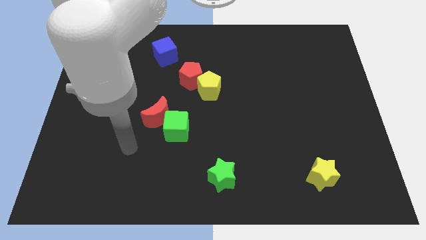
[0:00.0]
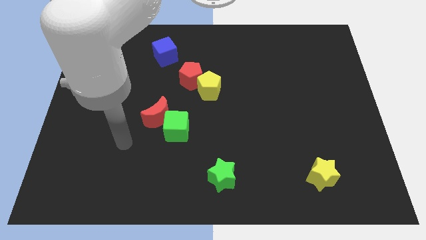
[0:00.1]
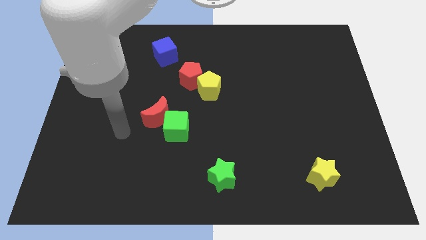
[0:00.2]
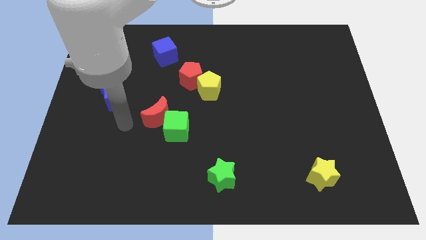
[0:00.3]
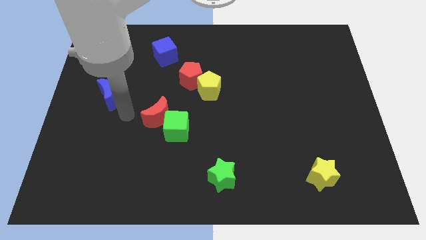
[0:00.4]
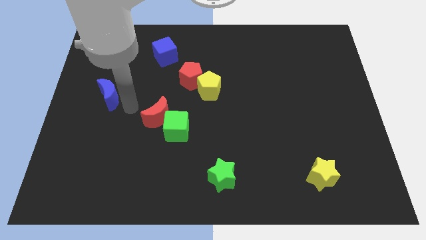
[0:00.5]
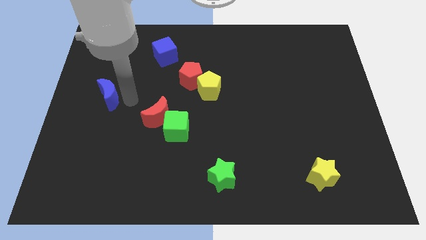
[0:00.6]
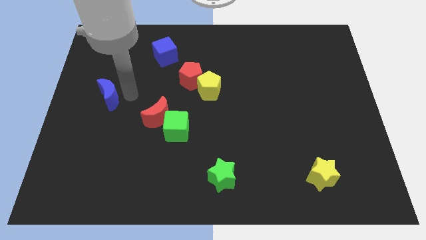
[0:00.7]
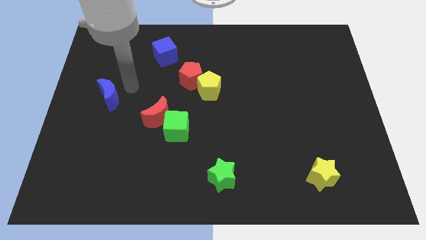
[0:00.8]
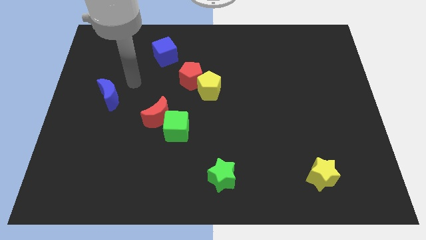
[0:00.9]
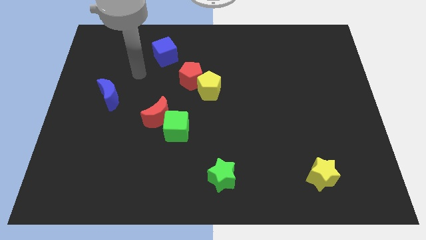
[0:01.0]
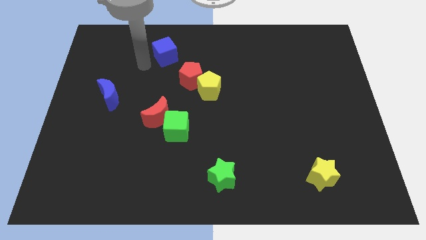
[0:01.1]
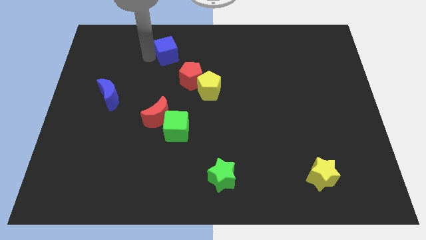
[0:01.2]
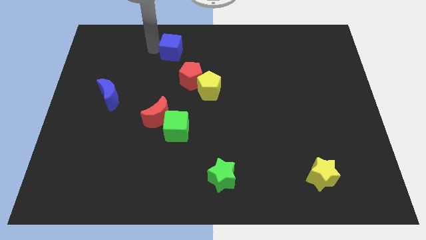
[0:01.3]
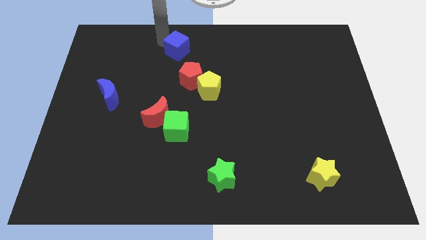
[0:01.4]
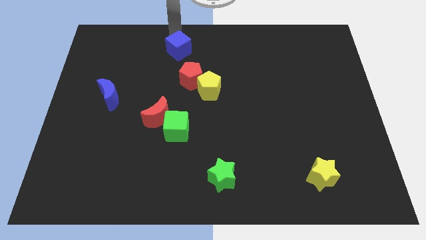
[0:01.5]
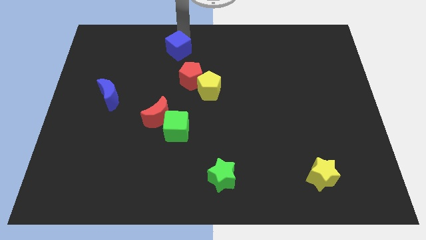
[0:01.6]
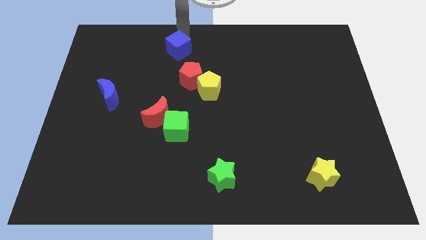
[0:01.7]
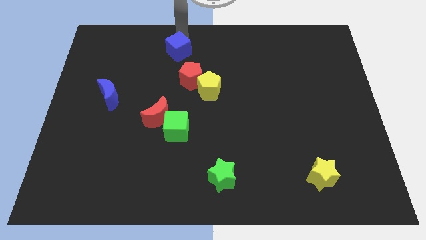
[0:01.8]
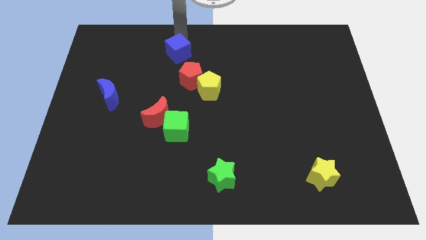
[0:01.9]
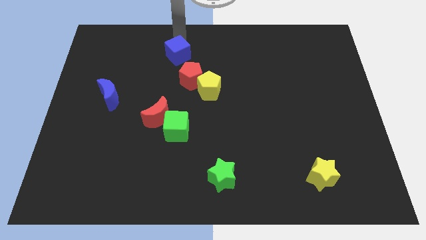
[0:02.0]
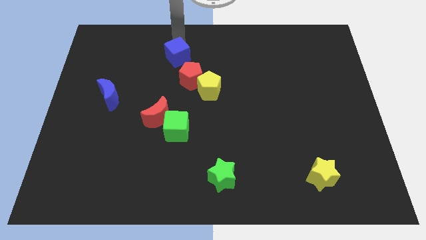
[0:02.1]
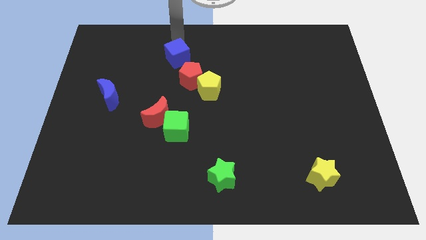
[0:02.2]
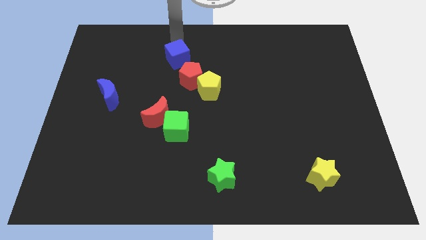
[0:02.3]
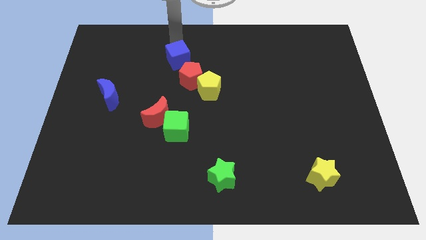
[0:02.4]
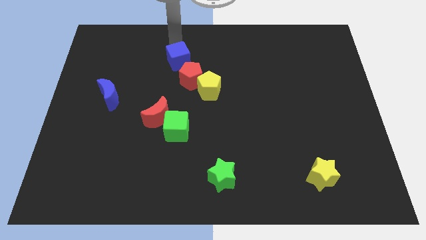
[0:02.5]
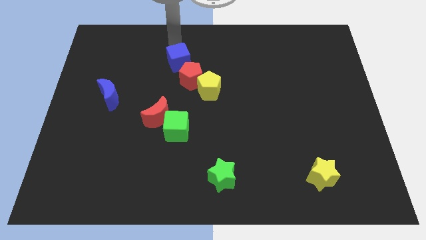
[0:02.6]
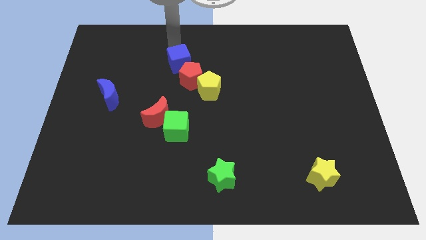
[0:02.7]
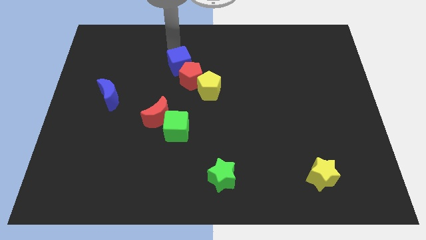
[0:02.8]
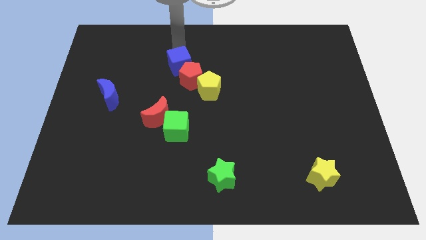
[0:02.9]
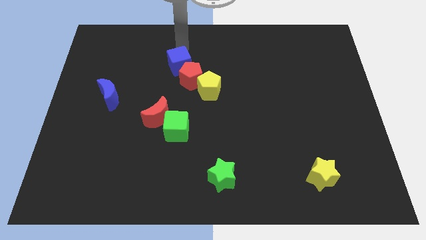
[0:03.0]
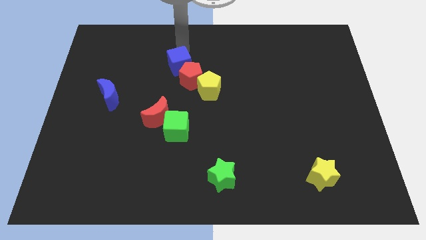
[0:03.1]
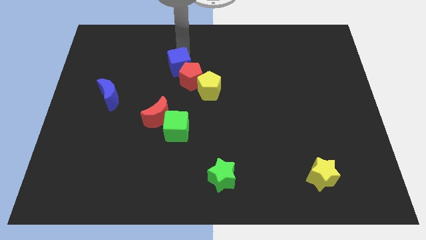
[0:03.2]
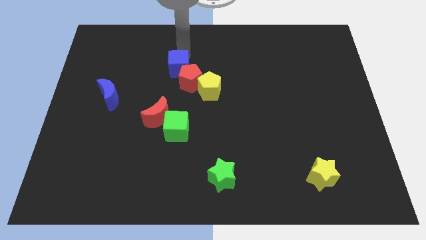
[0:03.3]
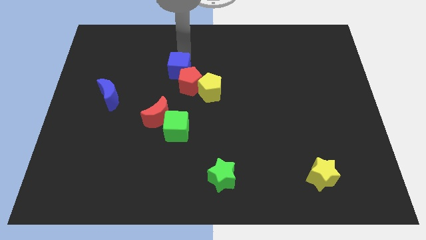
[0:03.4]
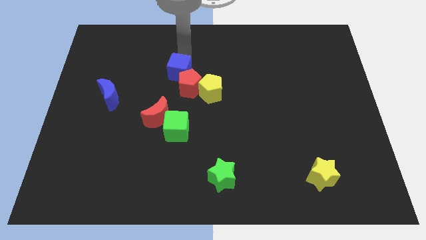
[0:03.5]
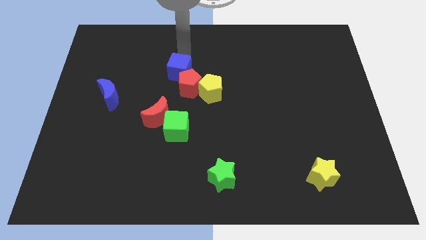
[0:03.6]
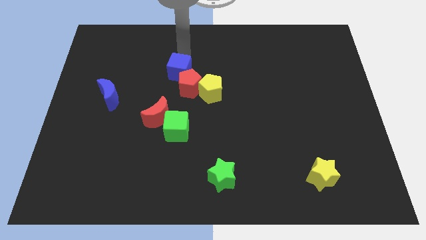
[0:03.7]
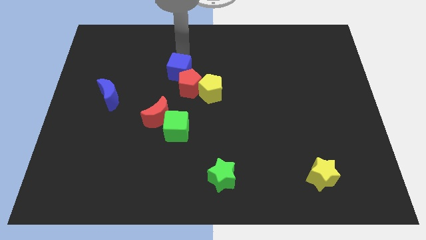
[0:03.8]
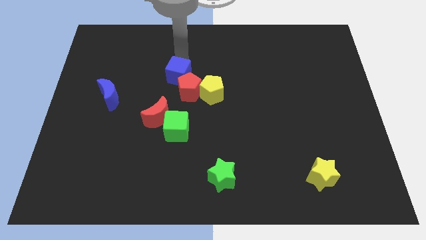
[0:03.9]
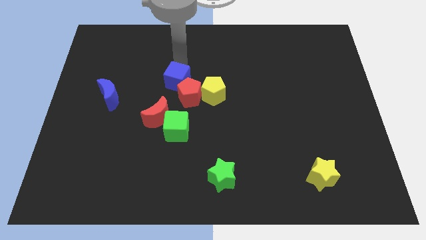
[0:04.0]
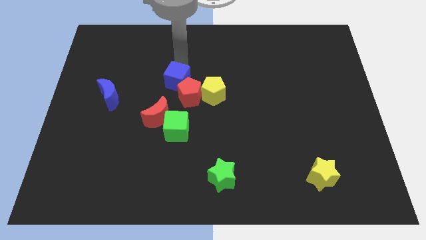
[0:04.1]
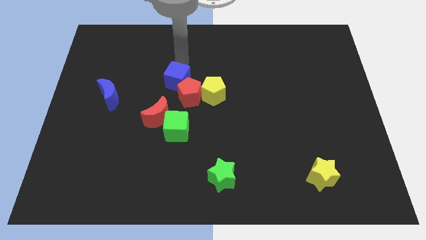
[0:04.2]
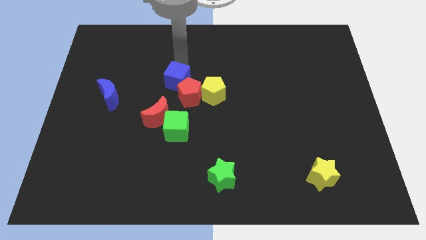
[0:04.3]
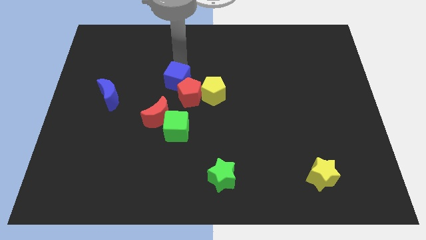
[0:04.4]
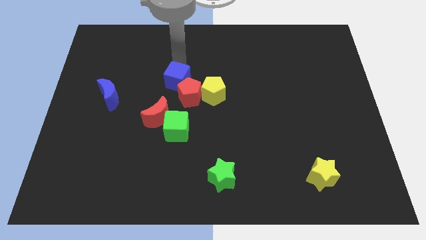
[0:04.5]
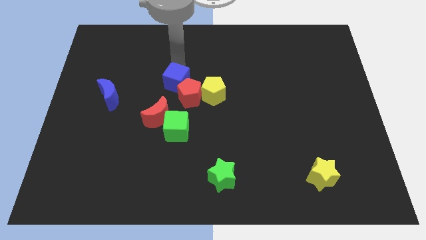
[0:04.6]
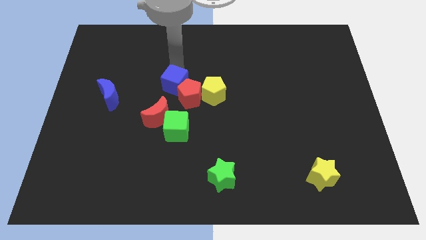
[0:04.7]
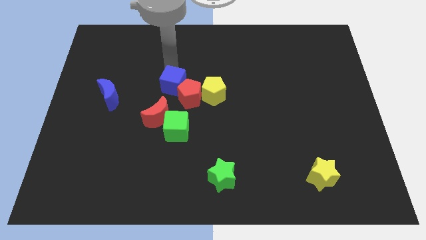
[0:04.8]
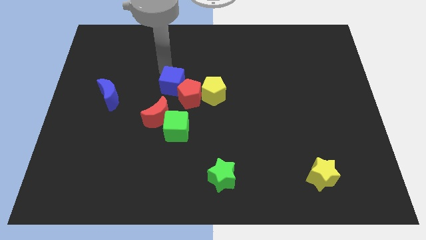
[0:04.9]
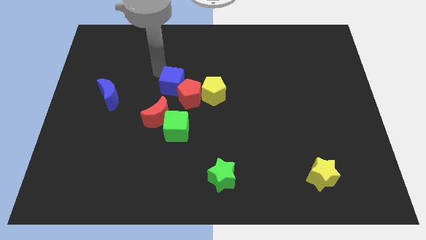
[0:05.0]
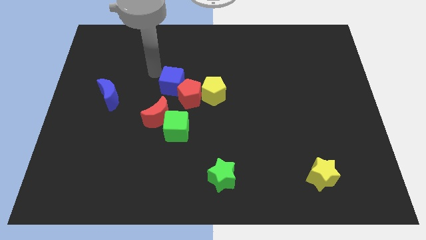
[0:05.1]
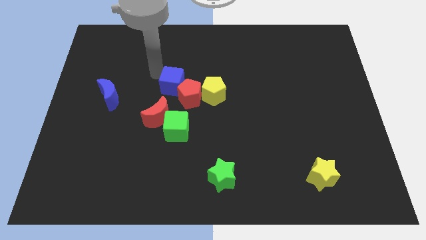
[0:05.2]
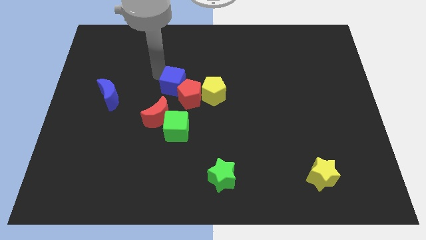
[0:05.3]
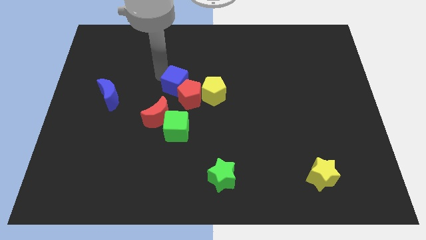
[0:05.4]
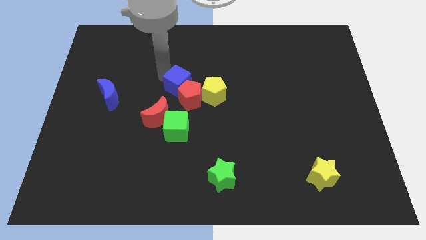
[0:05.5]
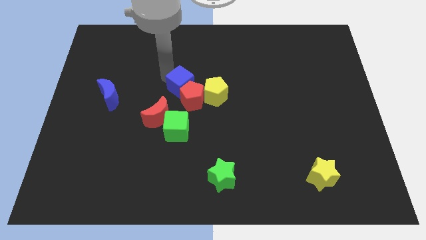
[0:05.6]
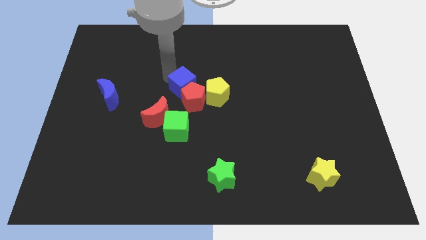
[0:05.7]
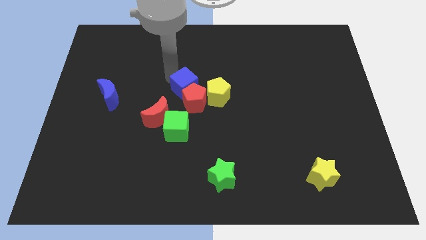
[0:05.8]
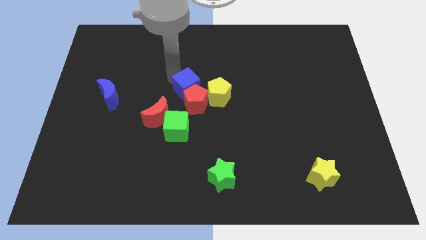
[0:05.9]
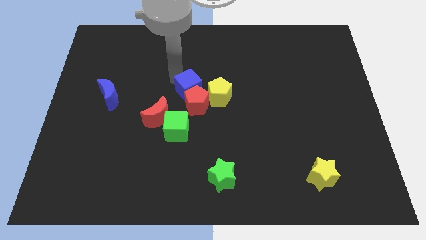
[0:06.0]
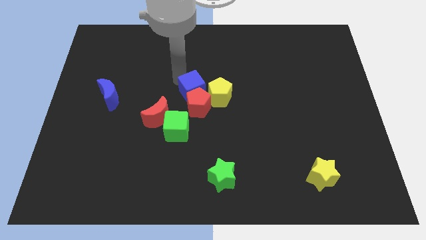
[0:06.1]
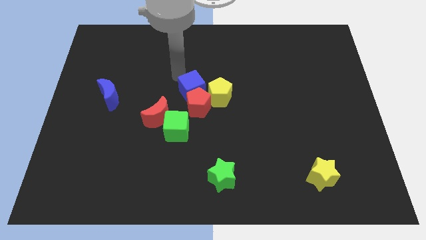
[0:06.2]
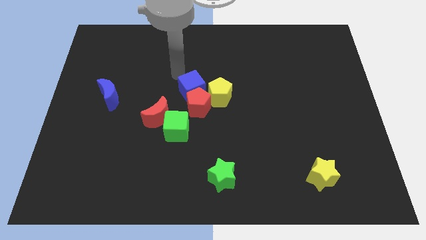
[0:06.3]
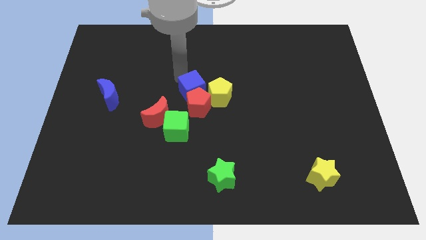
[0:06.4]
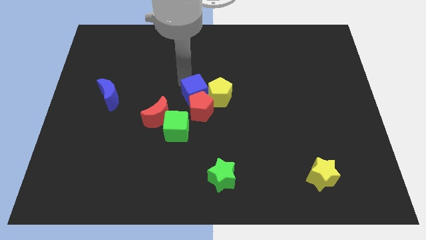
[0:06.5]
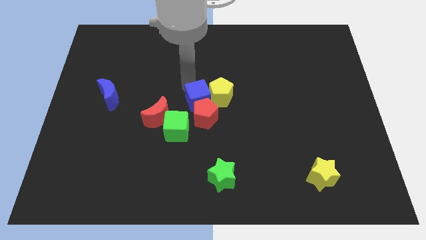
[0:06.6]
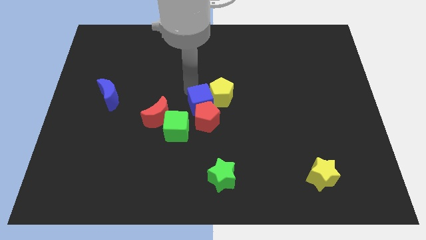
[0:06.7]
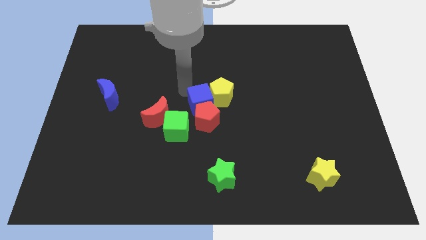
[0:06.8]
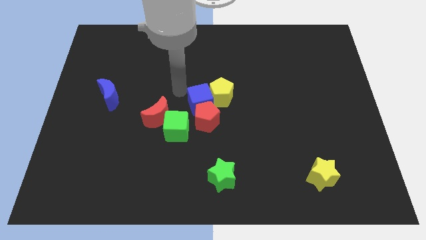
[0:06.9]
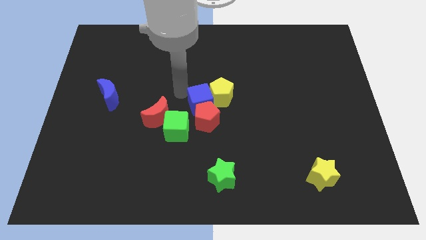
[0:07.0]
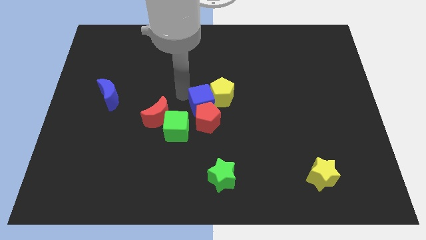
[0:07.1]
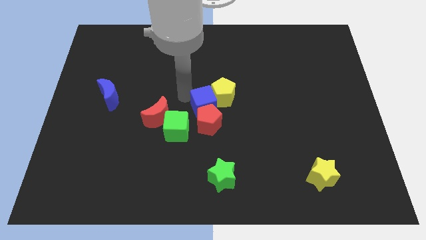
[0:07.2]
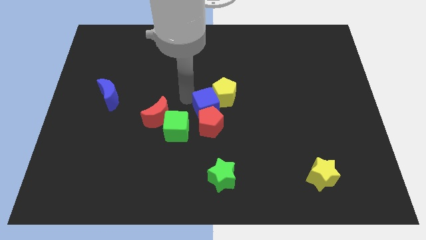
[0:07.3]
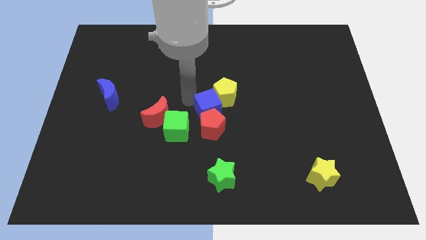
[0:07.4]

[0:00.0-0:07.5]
push the blue cube diagonally downwards and to the right

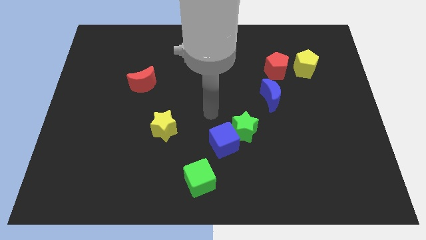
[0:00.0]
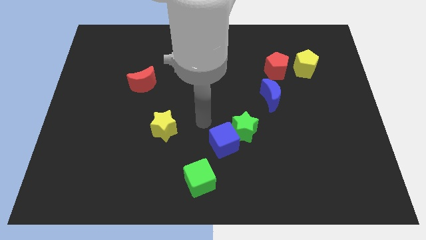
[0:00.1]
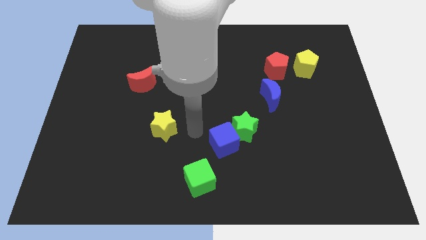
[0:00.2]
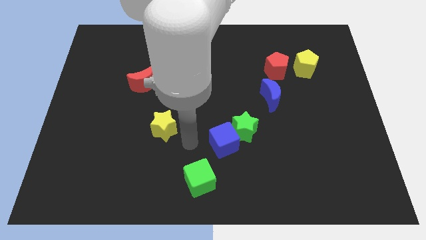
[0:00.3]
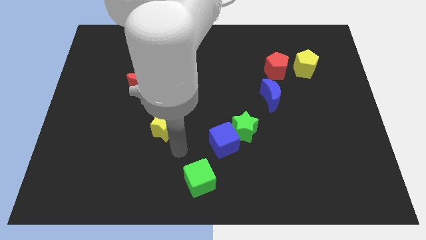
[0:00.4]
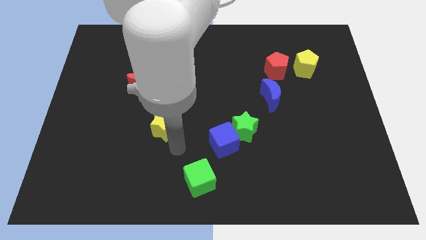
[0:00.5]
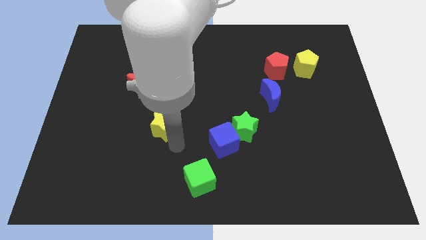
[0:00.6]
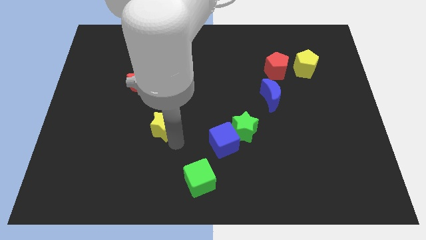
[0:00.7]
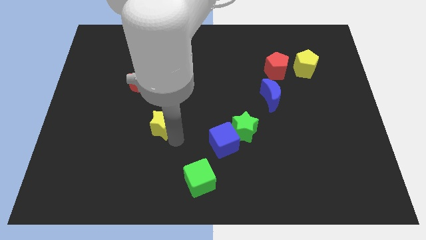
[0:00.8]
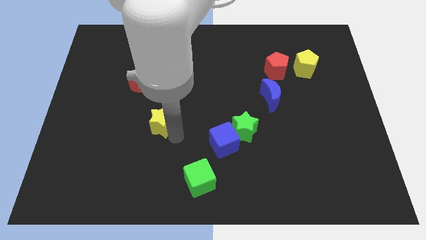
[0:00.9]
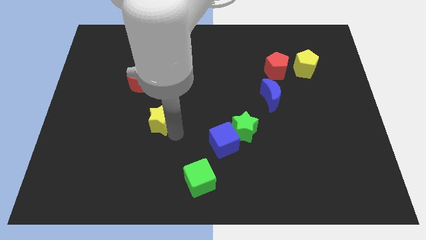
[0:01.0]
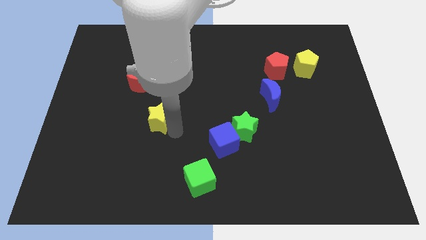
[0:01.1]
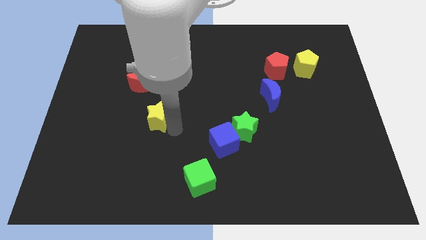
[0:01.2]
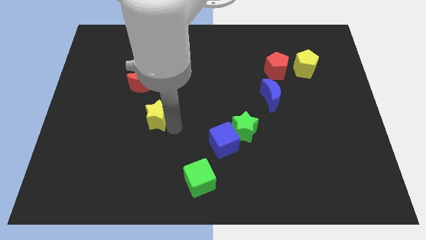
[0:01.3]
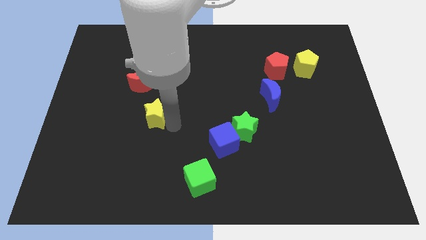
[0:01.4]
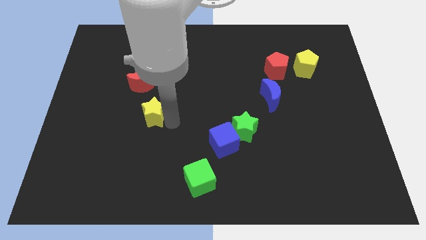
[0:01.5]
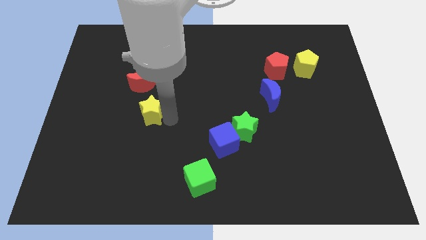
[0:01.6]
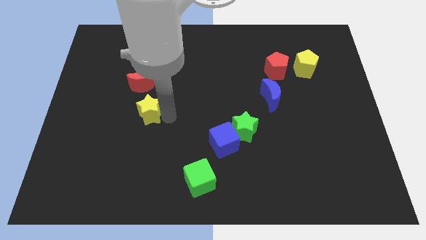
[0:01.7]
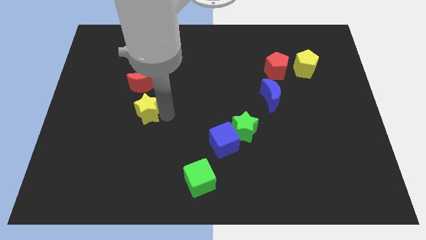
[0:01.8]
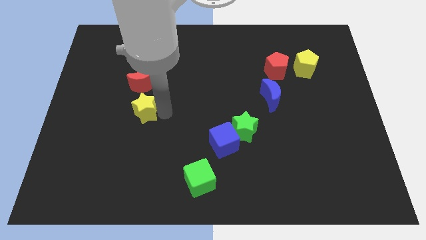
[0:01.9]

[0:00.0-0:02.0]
push the yellow star a little bit up and left diagonally
